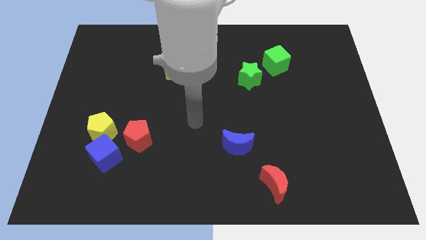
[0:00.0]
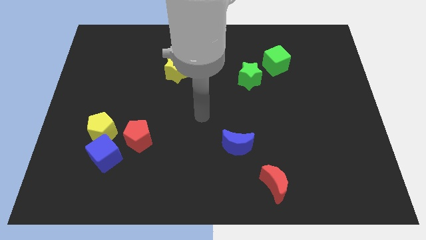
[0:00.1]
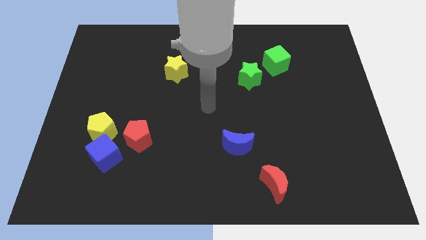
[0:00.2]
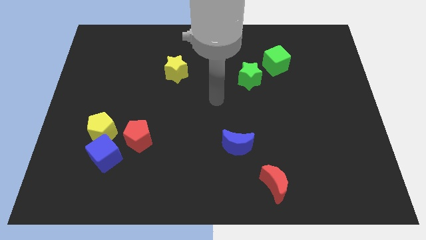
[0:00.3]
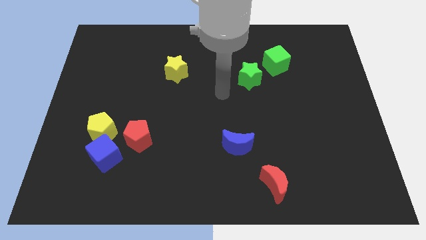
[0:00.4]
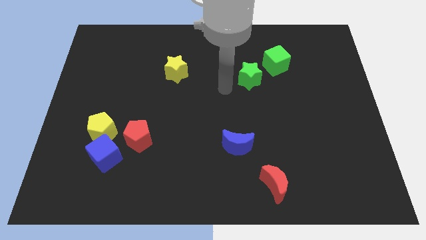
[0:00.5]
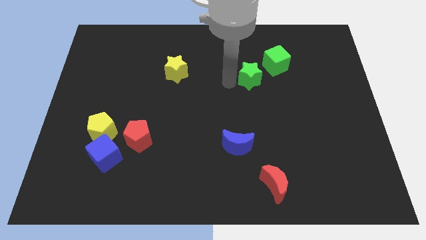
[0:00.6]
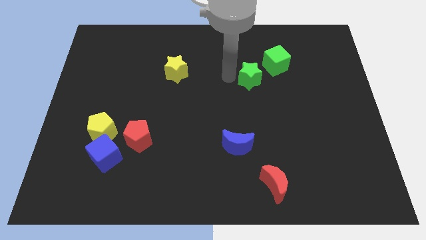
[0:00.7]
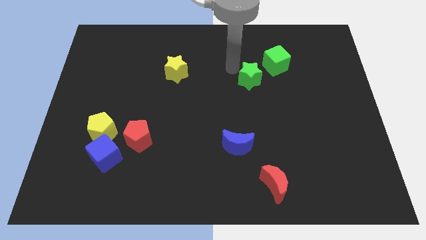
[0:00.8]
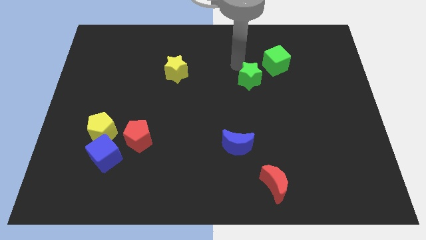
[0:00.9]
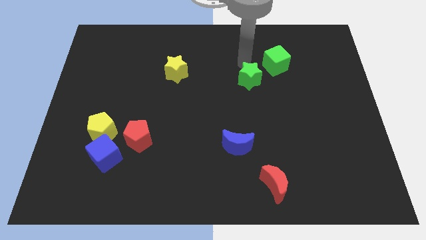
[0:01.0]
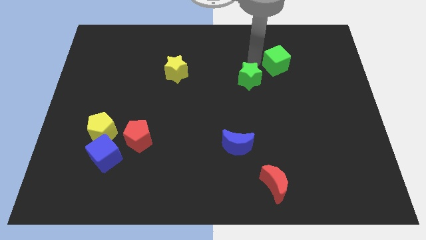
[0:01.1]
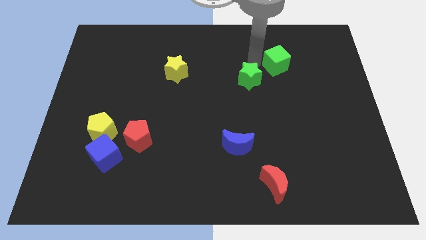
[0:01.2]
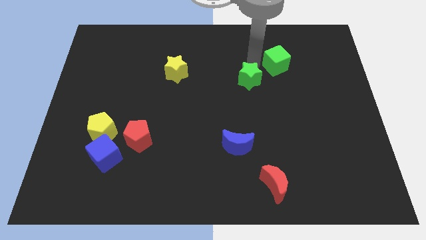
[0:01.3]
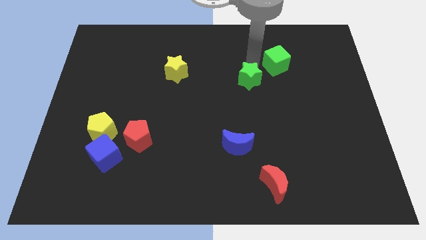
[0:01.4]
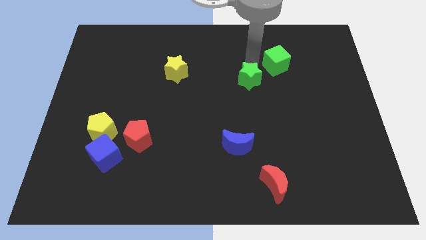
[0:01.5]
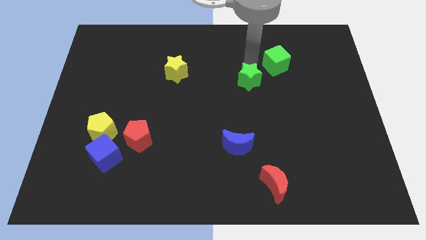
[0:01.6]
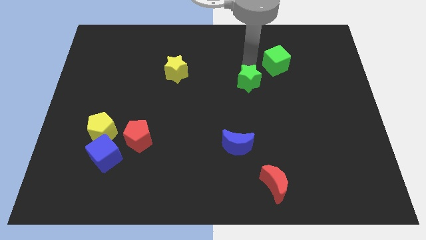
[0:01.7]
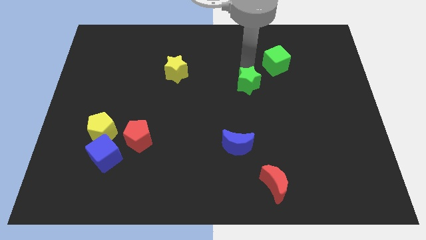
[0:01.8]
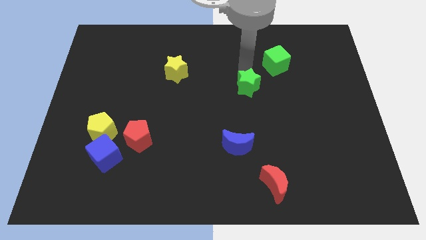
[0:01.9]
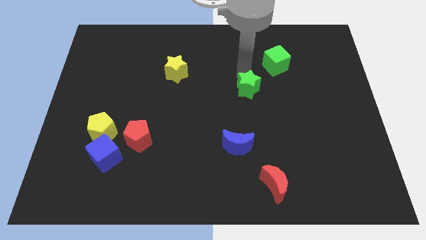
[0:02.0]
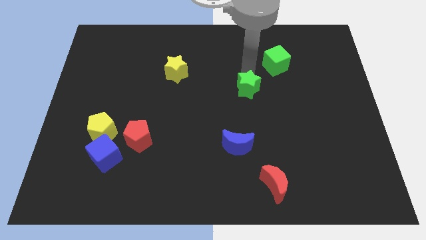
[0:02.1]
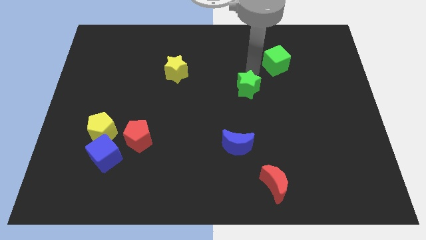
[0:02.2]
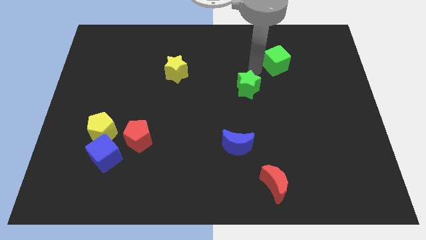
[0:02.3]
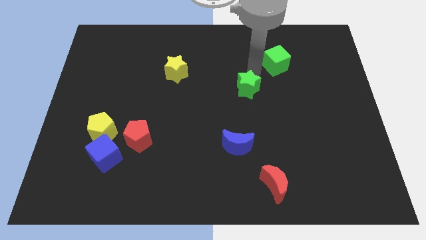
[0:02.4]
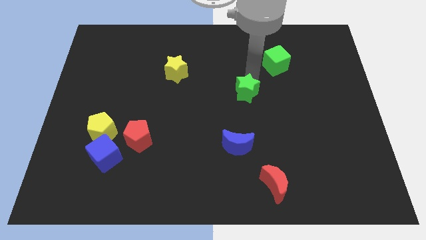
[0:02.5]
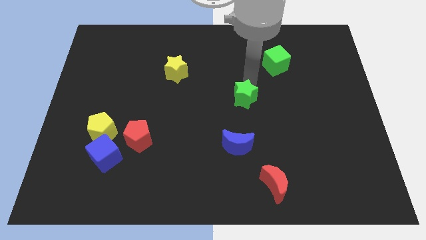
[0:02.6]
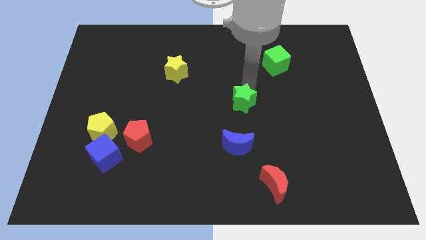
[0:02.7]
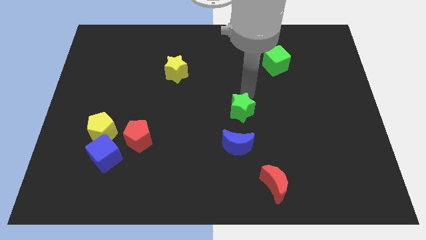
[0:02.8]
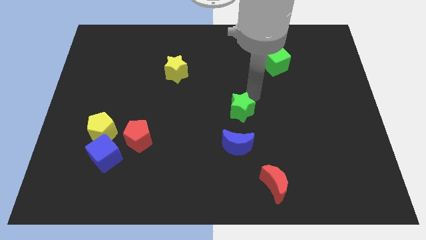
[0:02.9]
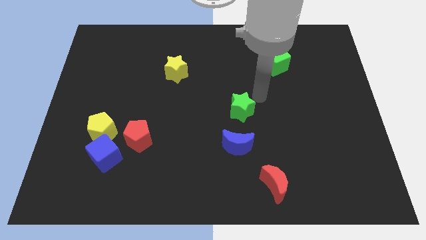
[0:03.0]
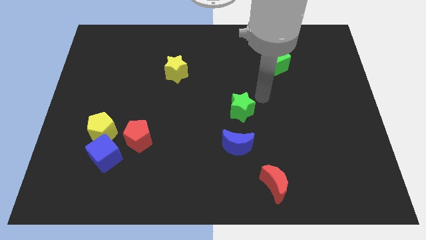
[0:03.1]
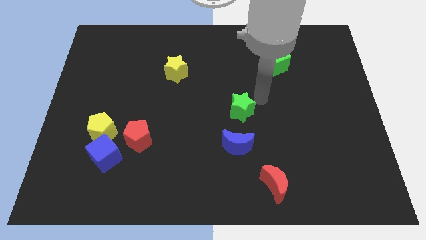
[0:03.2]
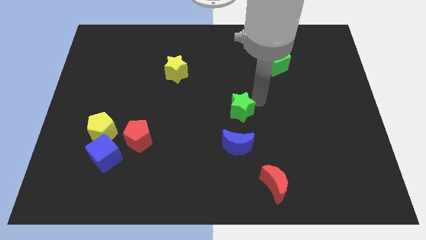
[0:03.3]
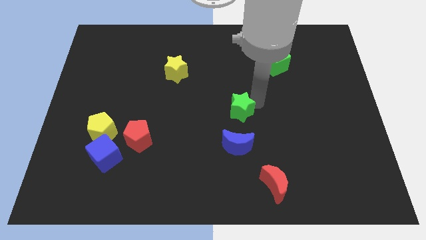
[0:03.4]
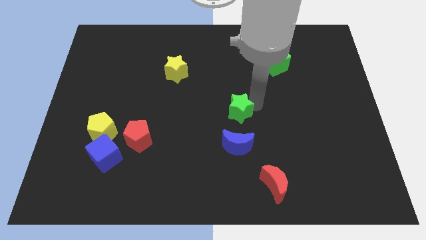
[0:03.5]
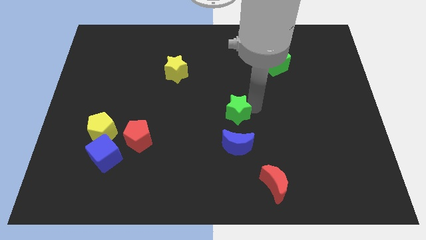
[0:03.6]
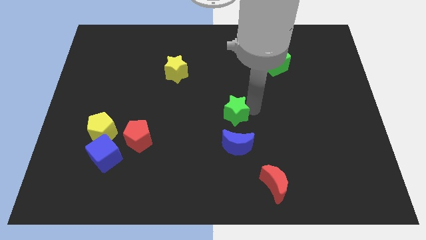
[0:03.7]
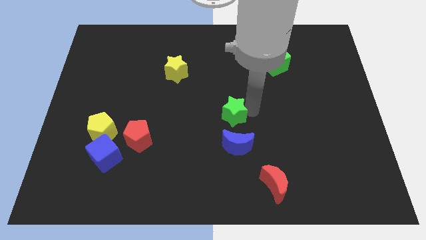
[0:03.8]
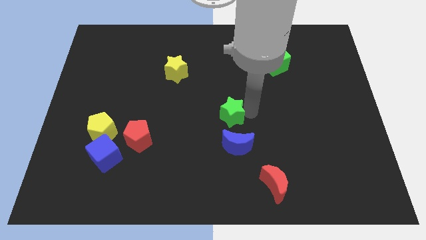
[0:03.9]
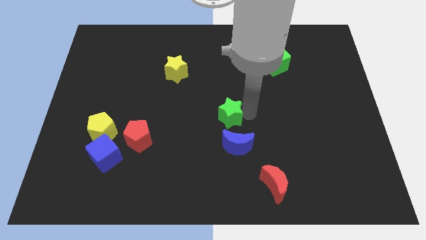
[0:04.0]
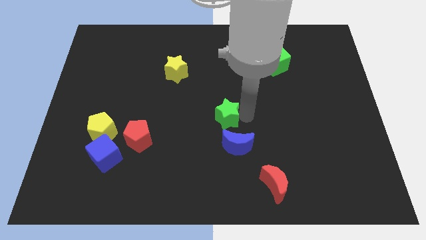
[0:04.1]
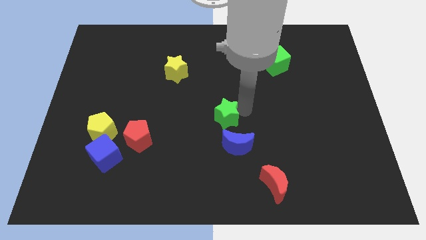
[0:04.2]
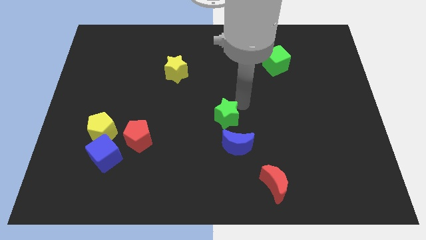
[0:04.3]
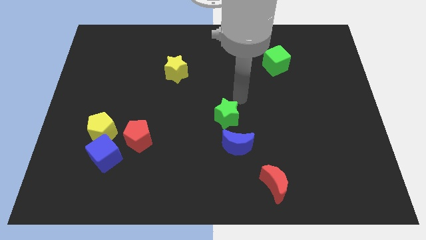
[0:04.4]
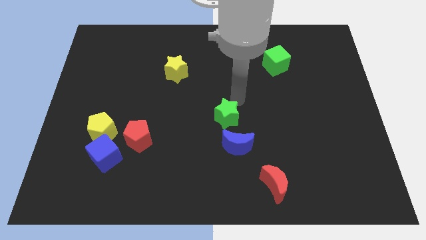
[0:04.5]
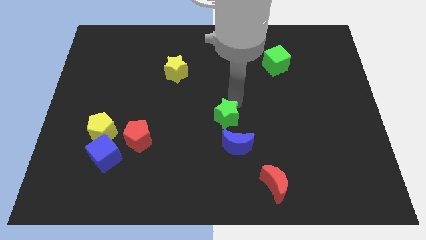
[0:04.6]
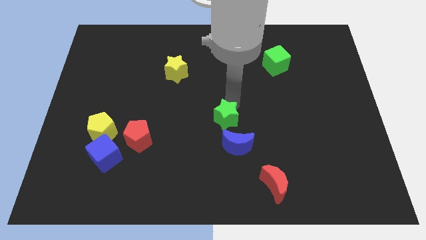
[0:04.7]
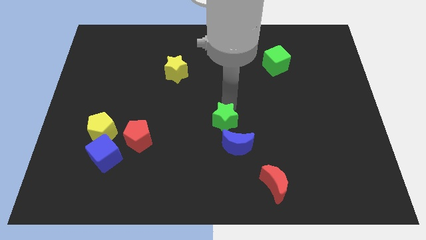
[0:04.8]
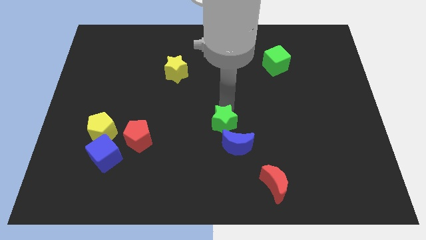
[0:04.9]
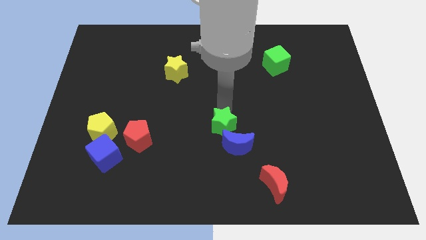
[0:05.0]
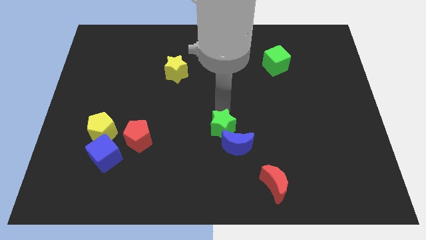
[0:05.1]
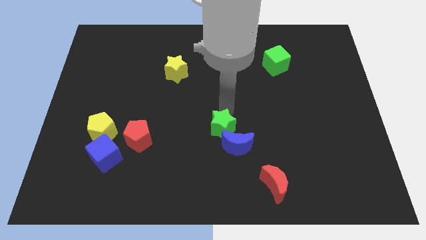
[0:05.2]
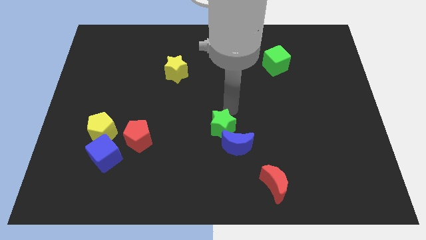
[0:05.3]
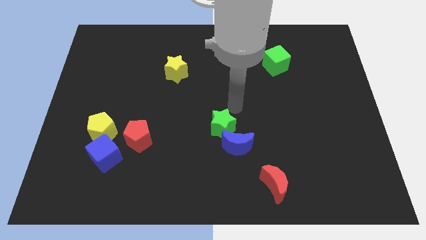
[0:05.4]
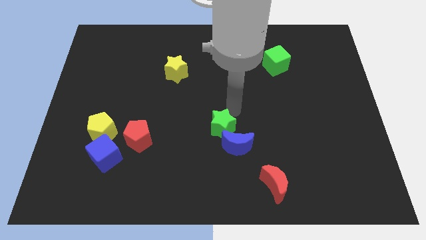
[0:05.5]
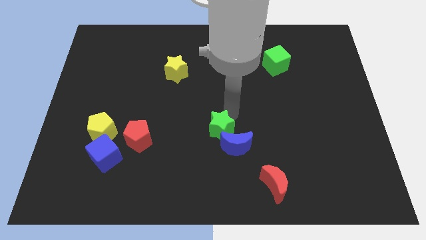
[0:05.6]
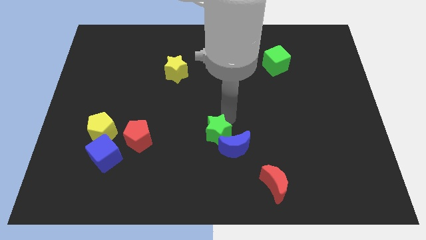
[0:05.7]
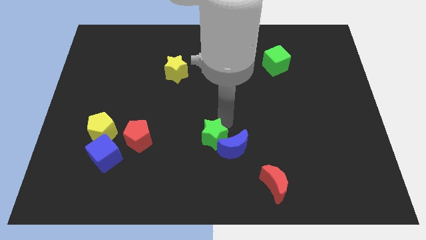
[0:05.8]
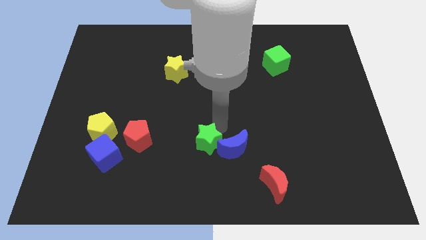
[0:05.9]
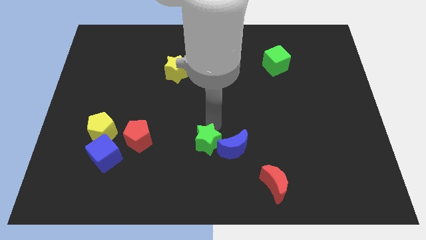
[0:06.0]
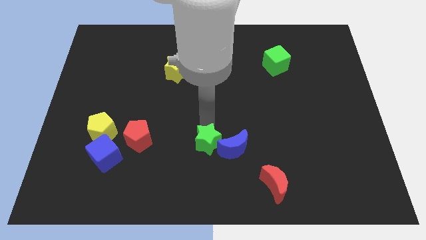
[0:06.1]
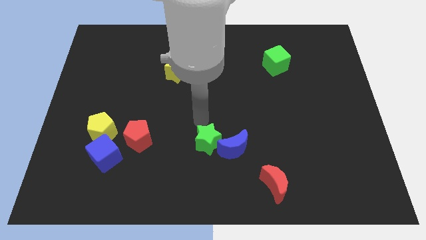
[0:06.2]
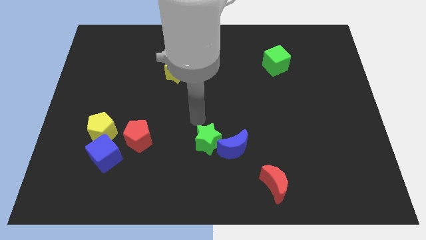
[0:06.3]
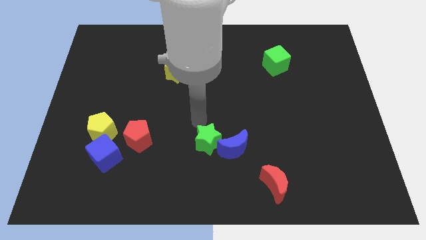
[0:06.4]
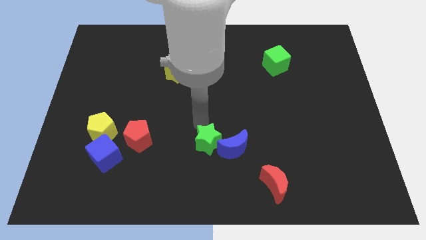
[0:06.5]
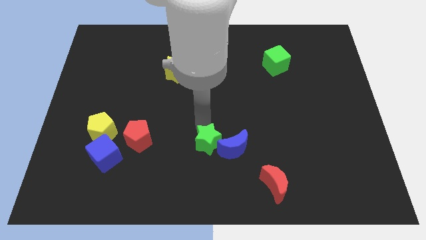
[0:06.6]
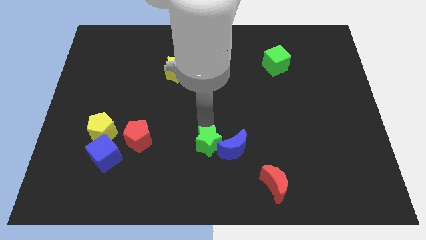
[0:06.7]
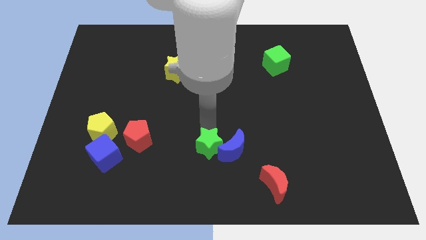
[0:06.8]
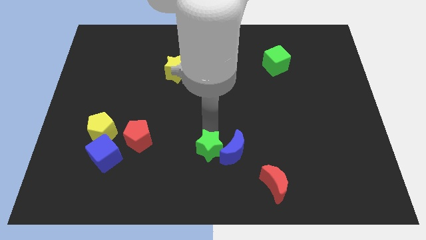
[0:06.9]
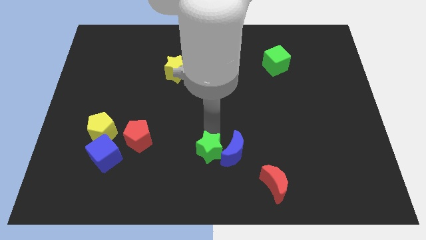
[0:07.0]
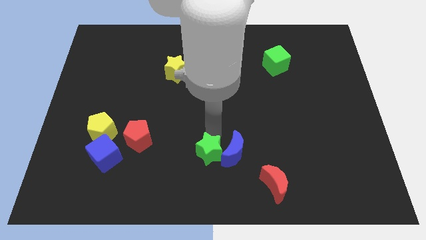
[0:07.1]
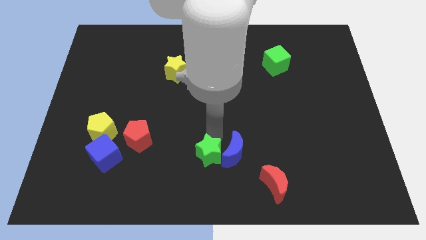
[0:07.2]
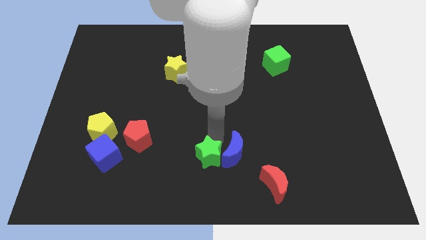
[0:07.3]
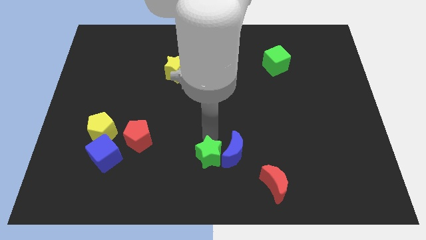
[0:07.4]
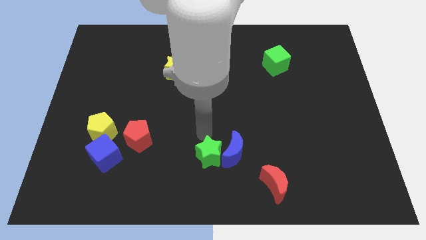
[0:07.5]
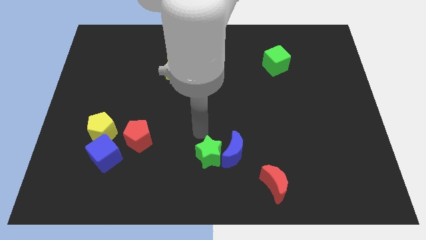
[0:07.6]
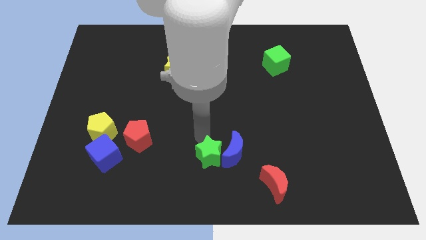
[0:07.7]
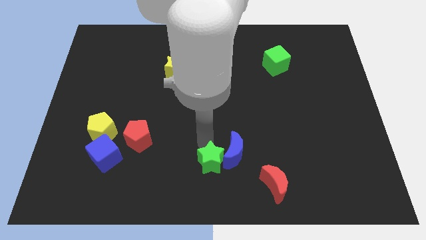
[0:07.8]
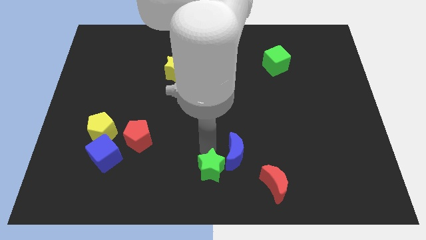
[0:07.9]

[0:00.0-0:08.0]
push the green star to the left side of the red moon
